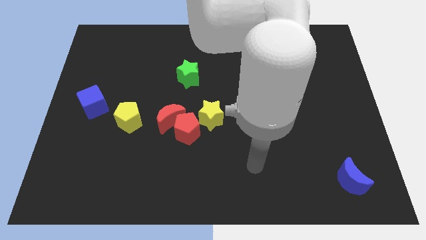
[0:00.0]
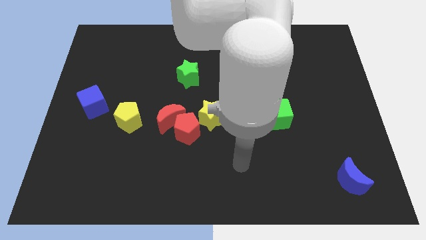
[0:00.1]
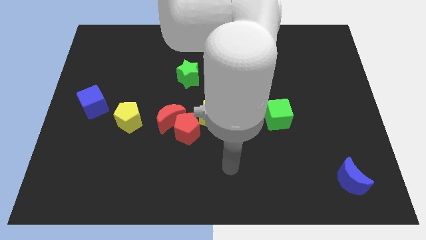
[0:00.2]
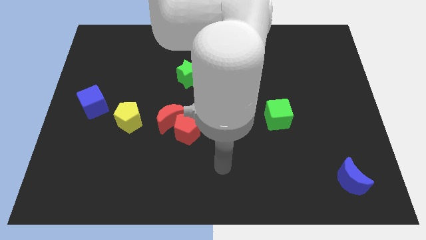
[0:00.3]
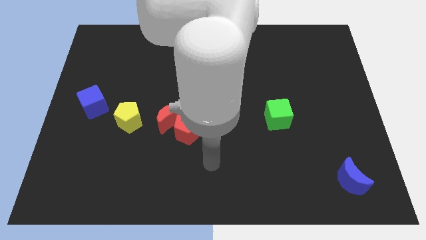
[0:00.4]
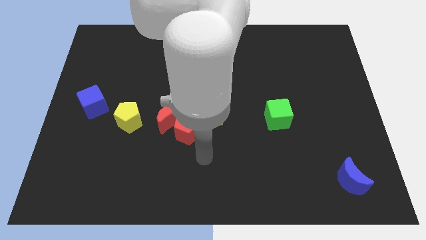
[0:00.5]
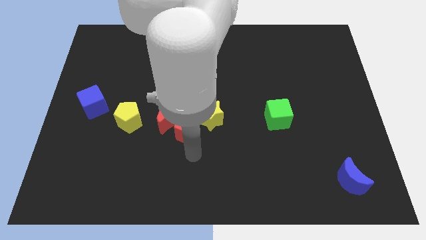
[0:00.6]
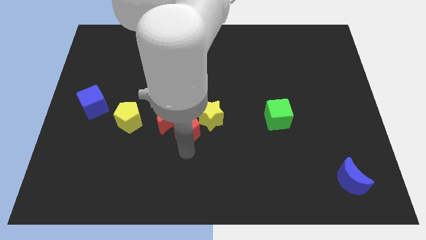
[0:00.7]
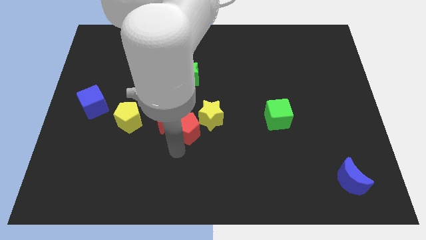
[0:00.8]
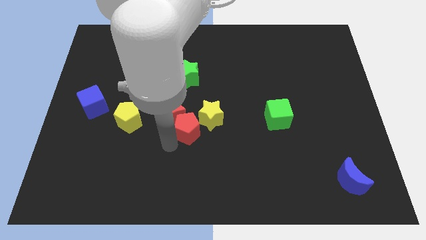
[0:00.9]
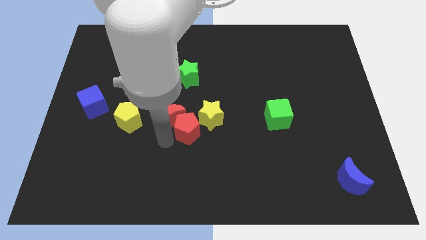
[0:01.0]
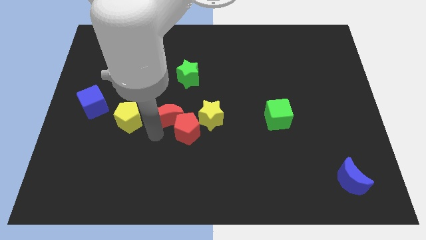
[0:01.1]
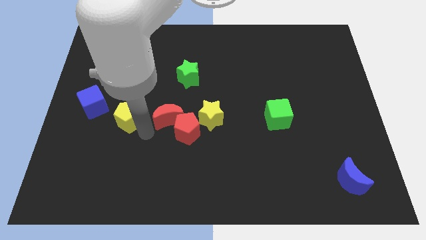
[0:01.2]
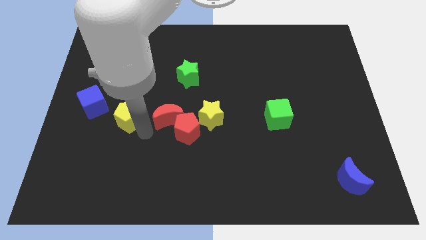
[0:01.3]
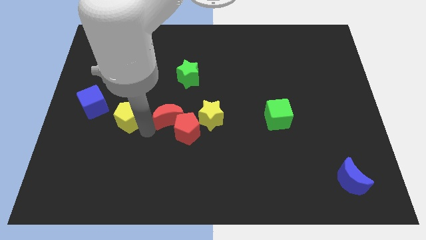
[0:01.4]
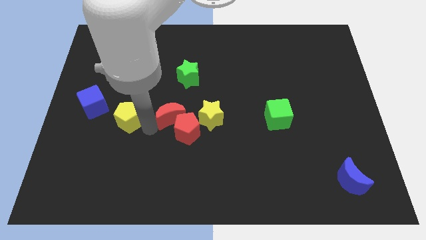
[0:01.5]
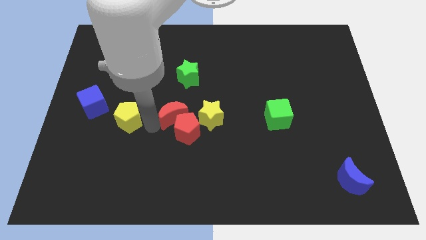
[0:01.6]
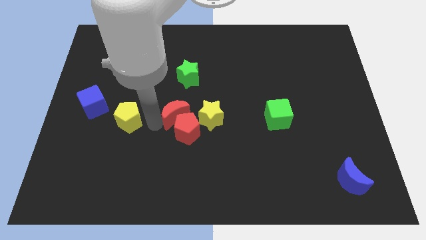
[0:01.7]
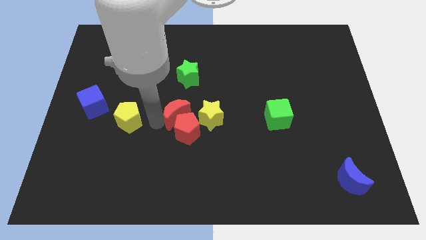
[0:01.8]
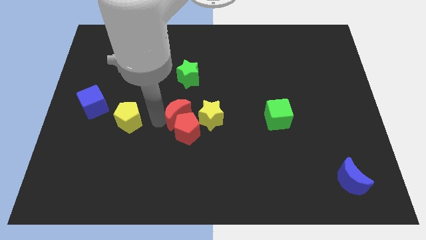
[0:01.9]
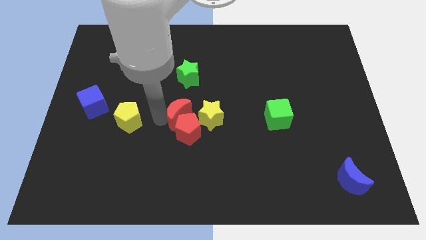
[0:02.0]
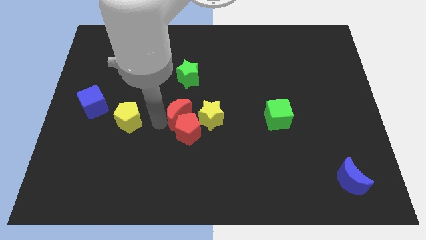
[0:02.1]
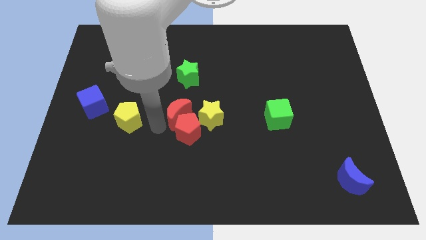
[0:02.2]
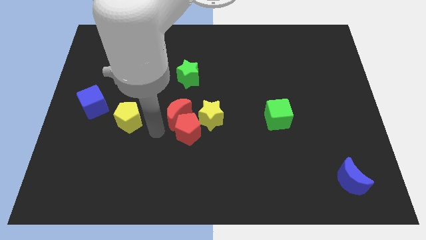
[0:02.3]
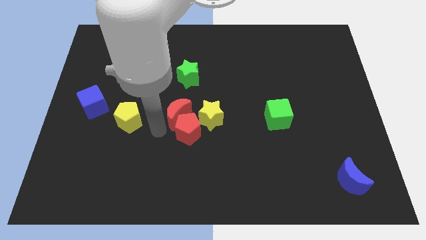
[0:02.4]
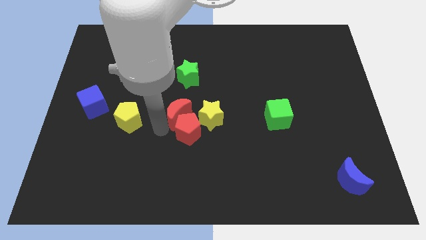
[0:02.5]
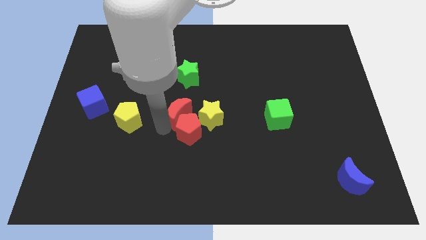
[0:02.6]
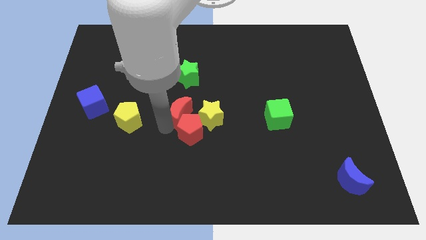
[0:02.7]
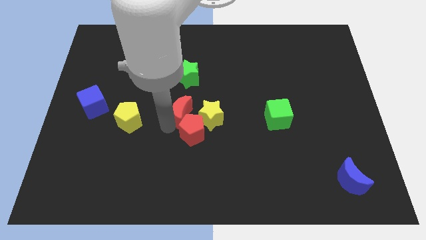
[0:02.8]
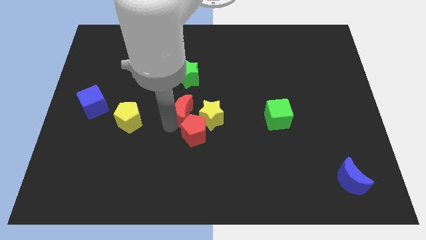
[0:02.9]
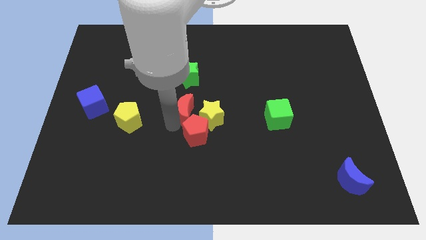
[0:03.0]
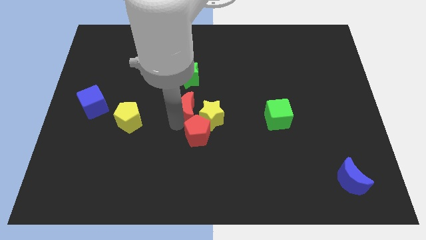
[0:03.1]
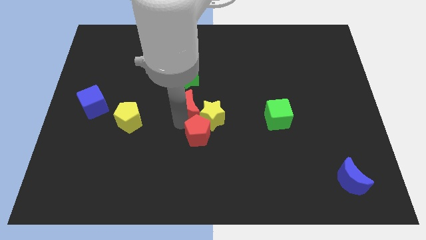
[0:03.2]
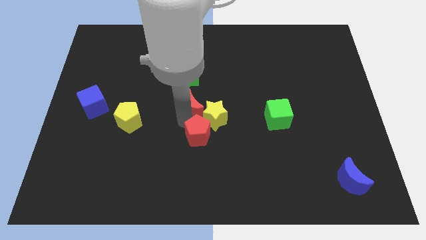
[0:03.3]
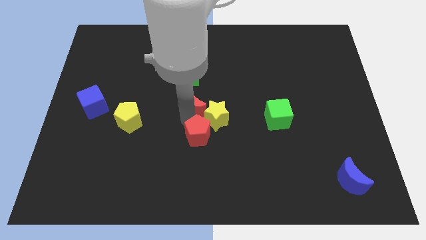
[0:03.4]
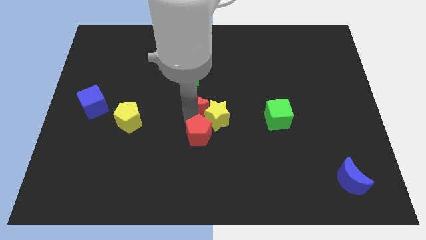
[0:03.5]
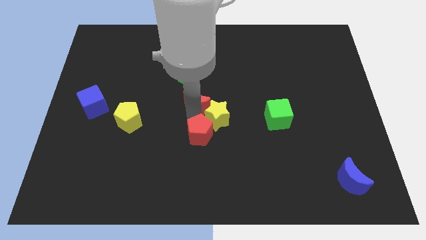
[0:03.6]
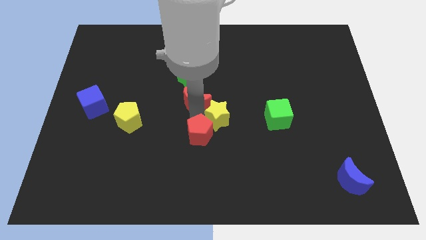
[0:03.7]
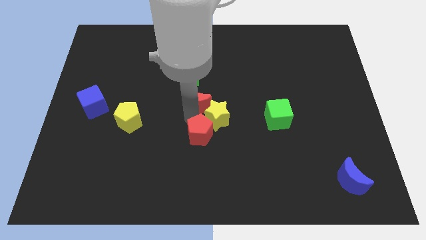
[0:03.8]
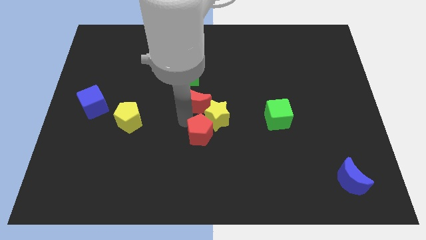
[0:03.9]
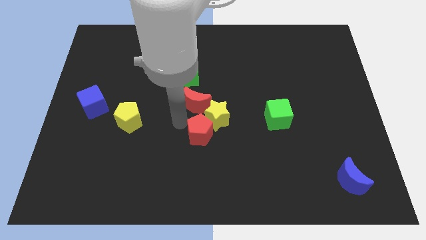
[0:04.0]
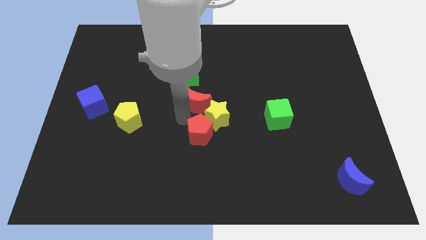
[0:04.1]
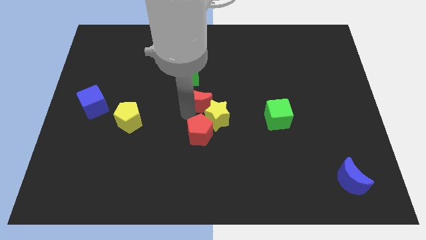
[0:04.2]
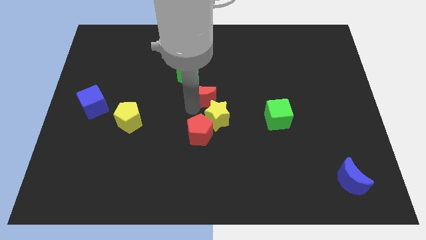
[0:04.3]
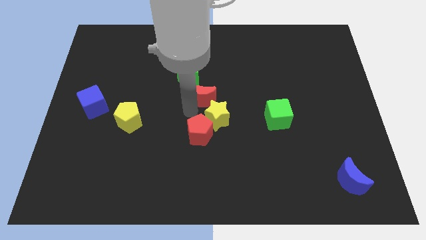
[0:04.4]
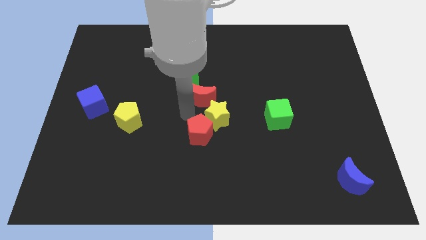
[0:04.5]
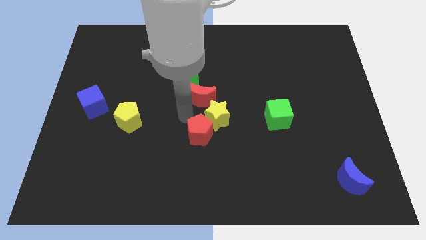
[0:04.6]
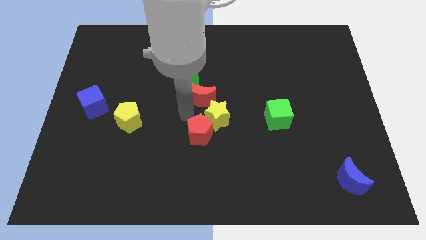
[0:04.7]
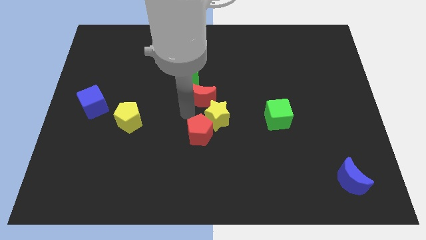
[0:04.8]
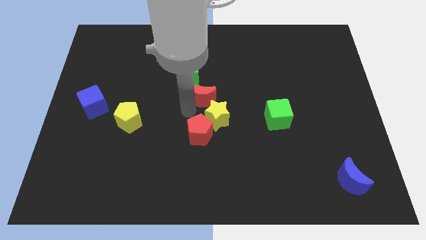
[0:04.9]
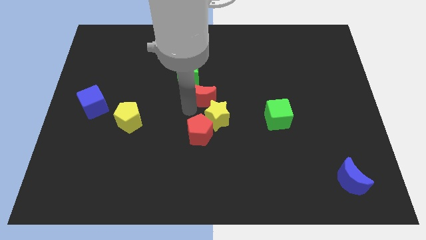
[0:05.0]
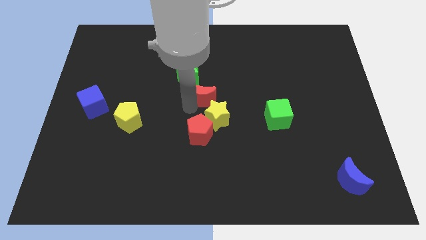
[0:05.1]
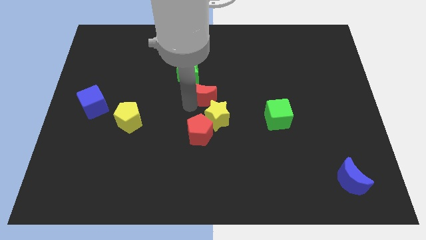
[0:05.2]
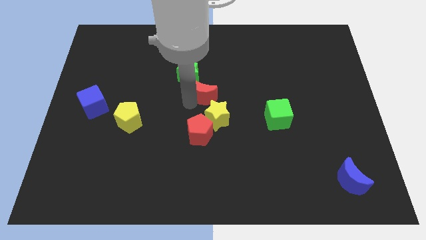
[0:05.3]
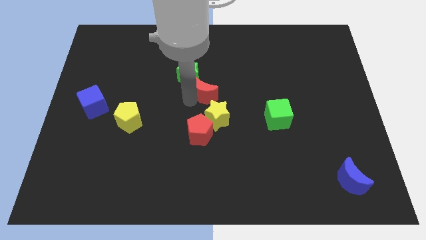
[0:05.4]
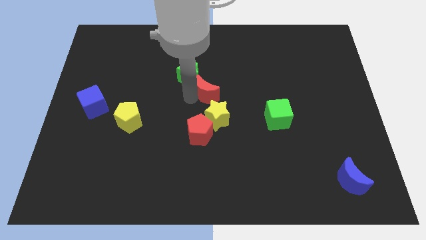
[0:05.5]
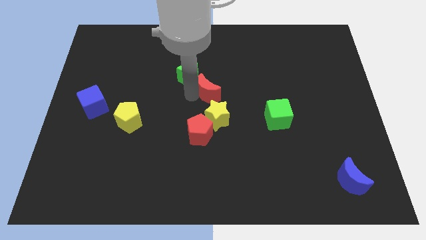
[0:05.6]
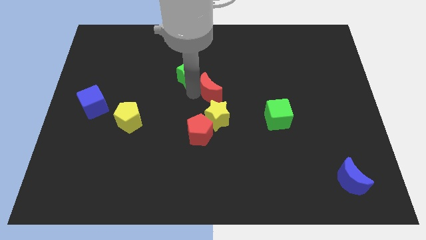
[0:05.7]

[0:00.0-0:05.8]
push the red moon just right of the green star

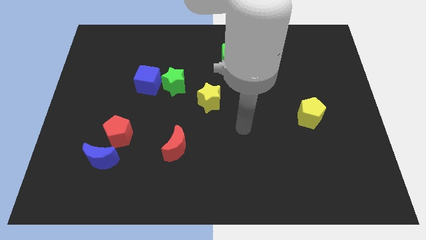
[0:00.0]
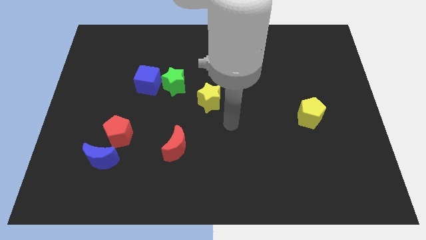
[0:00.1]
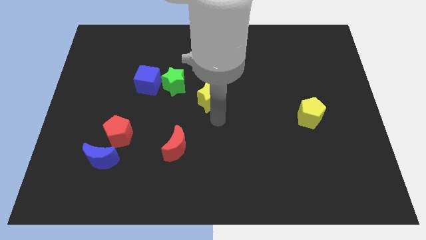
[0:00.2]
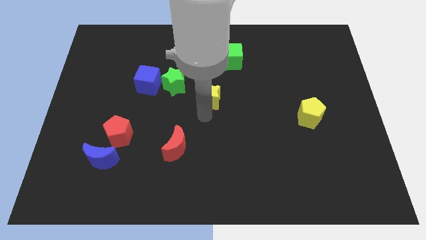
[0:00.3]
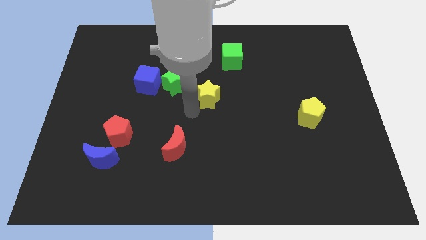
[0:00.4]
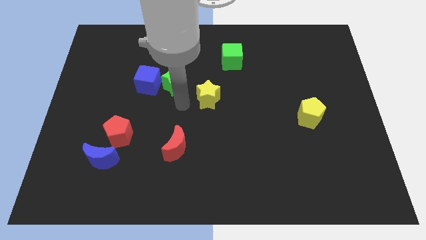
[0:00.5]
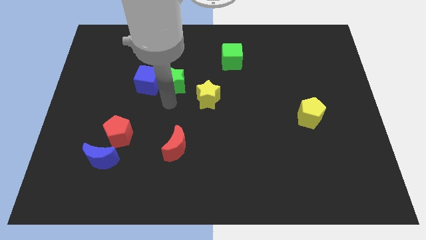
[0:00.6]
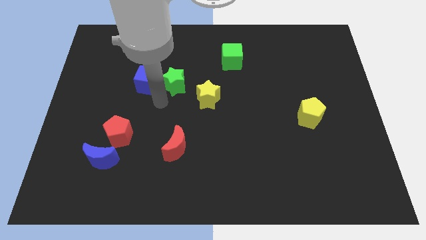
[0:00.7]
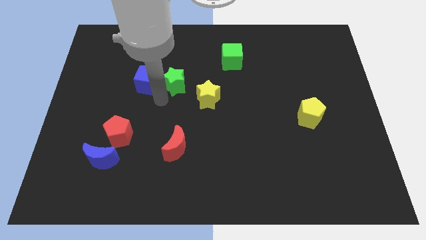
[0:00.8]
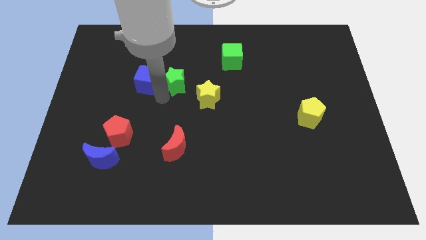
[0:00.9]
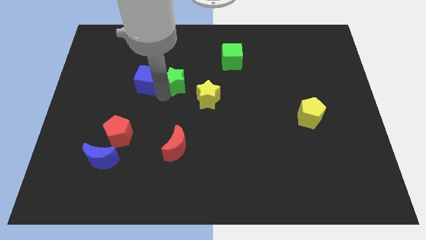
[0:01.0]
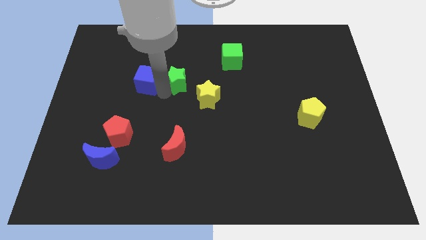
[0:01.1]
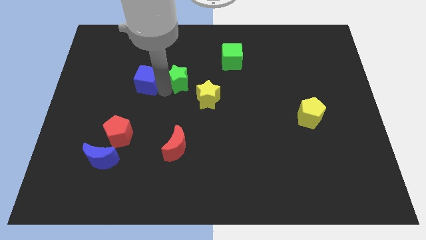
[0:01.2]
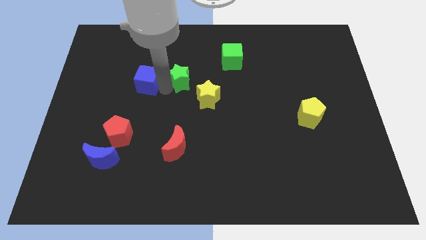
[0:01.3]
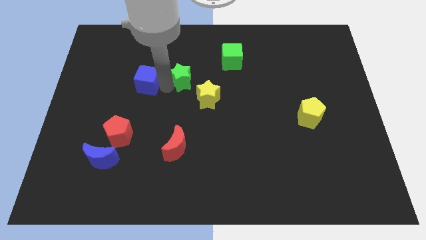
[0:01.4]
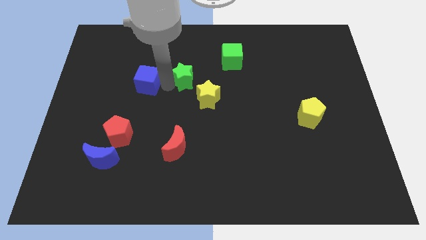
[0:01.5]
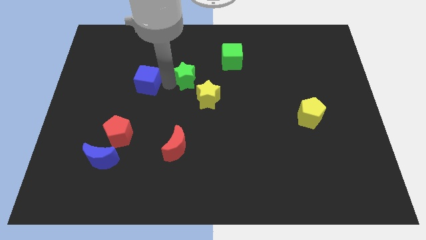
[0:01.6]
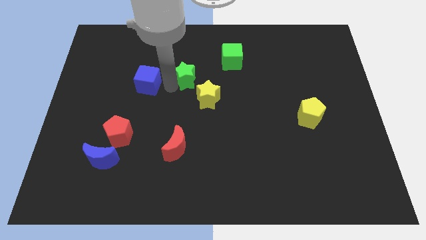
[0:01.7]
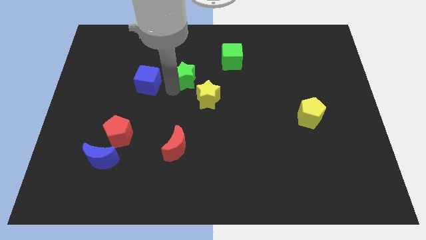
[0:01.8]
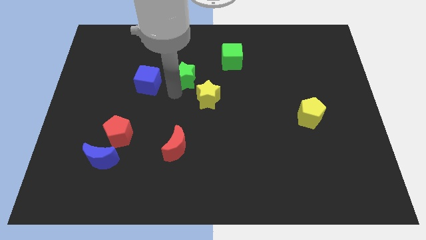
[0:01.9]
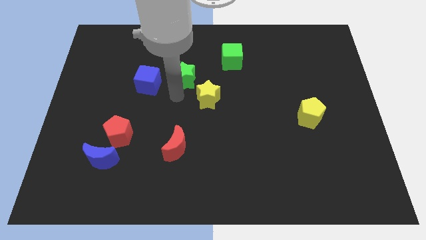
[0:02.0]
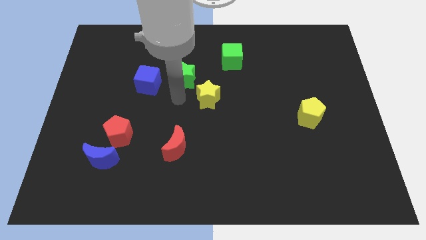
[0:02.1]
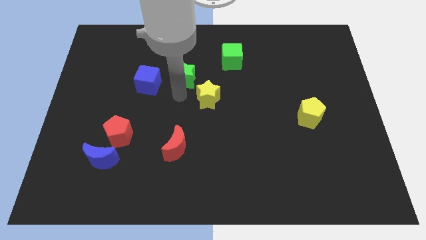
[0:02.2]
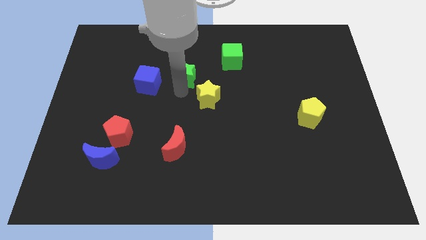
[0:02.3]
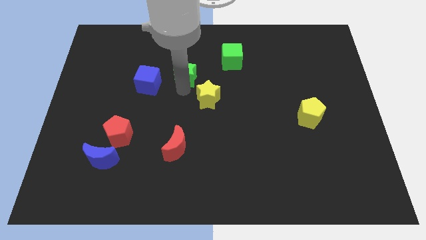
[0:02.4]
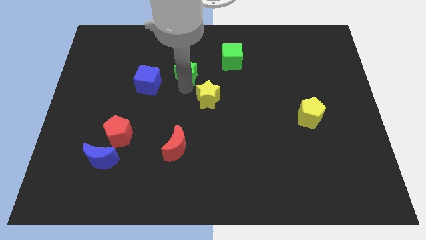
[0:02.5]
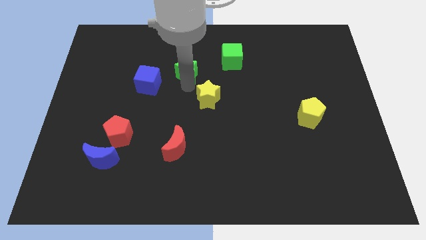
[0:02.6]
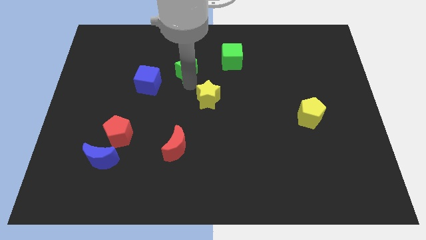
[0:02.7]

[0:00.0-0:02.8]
put the green star to the left side of the green cube
